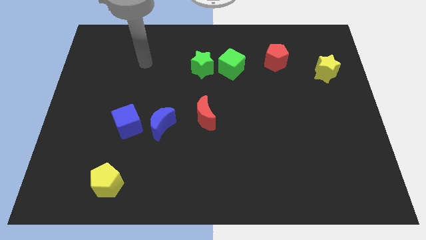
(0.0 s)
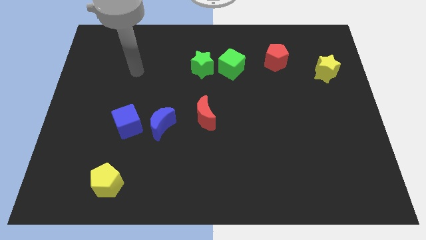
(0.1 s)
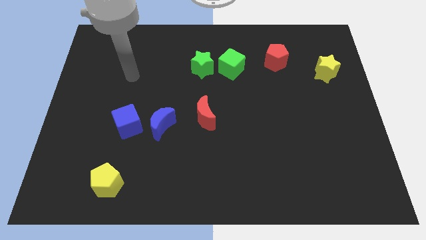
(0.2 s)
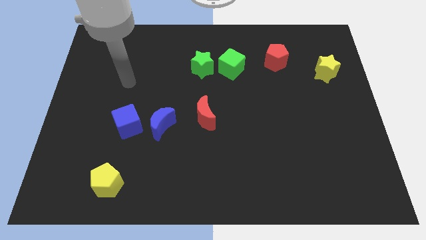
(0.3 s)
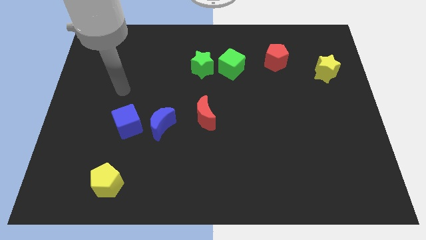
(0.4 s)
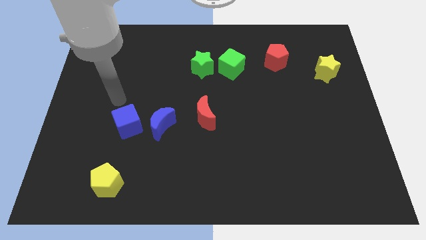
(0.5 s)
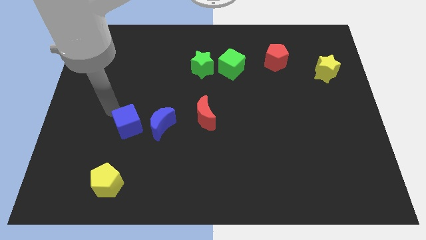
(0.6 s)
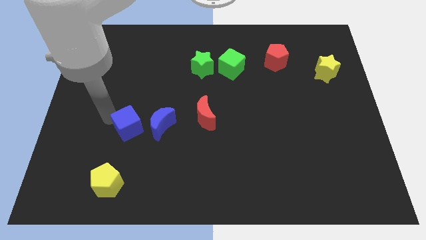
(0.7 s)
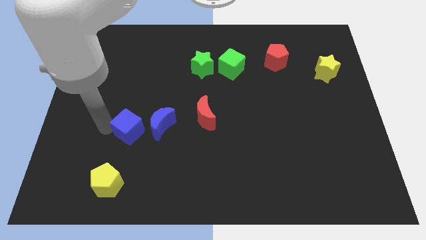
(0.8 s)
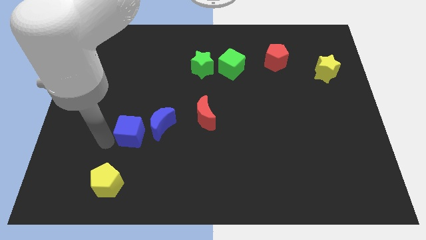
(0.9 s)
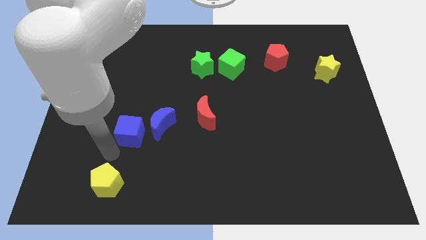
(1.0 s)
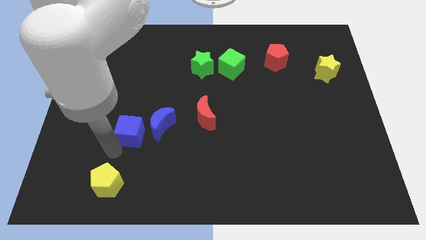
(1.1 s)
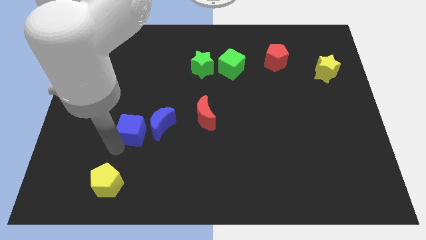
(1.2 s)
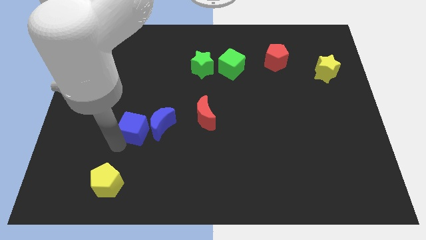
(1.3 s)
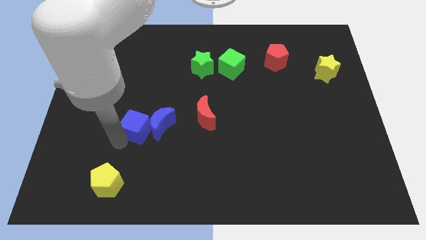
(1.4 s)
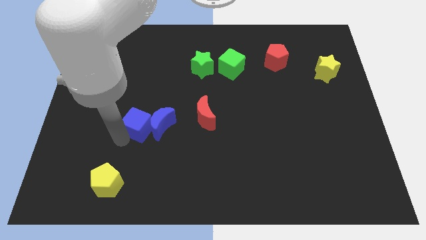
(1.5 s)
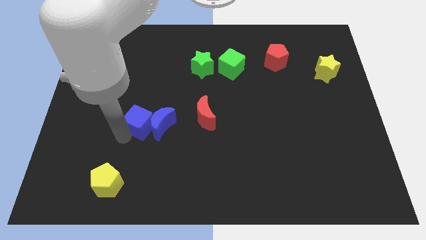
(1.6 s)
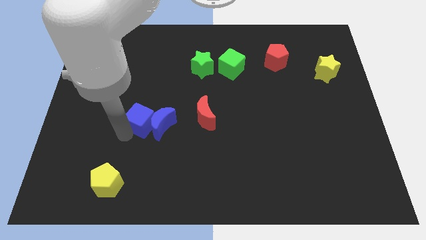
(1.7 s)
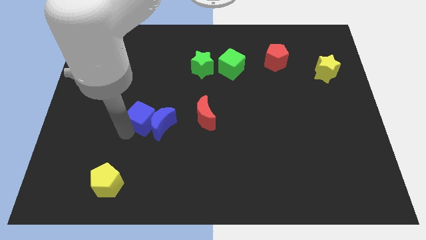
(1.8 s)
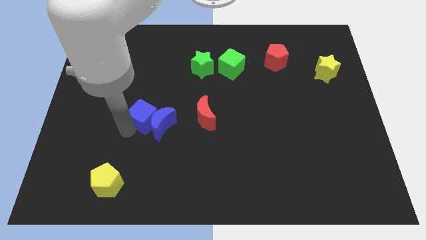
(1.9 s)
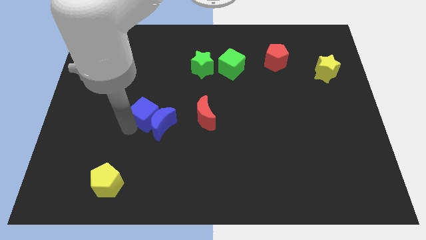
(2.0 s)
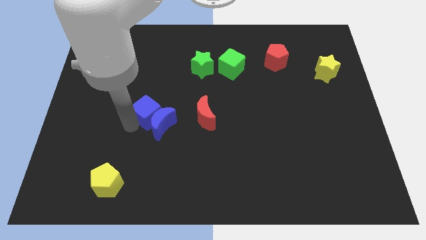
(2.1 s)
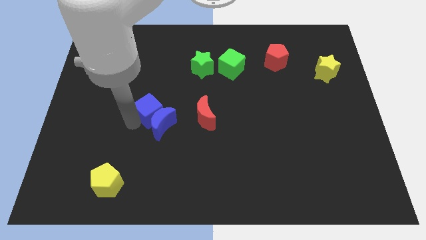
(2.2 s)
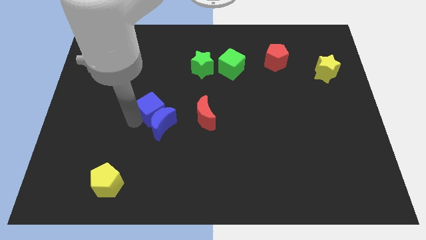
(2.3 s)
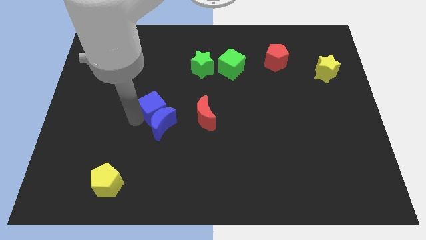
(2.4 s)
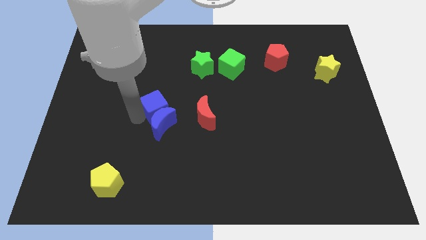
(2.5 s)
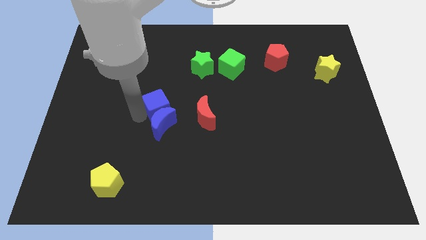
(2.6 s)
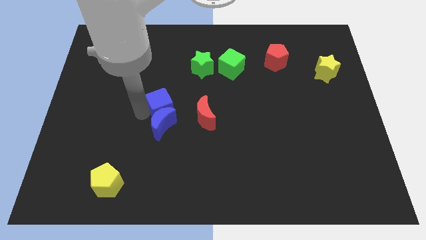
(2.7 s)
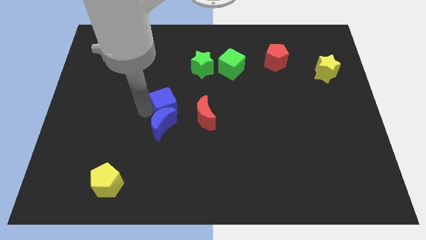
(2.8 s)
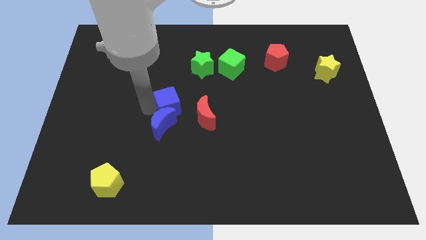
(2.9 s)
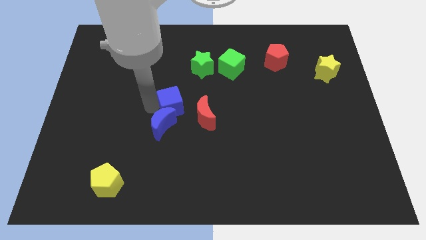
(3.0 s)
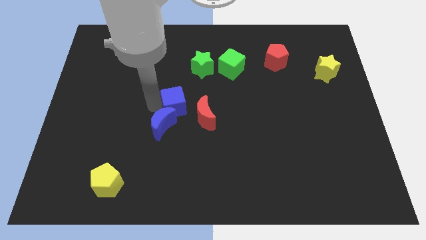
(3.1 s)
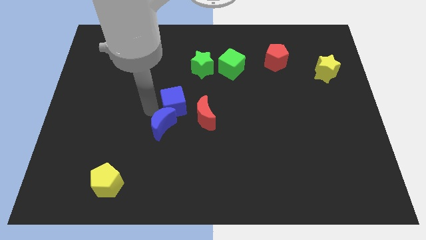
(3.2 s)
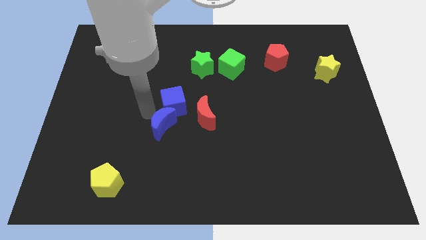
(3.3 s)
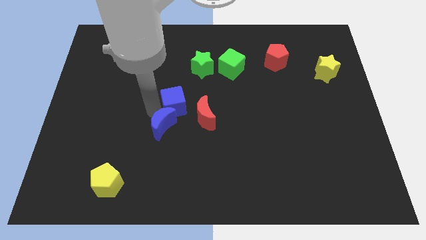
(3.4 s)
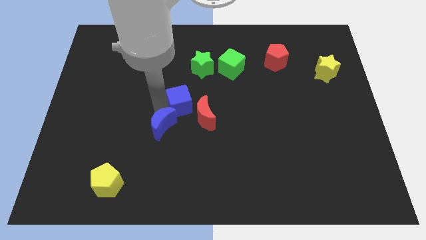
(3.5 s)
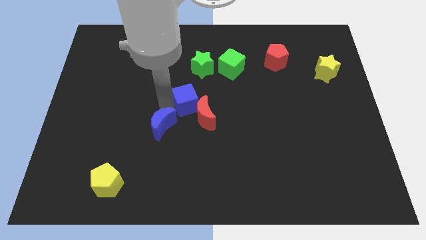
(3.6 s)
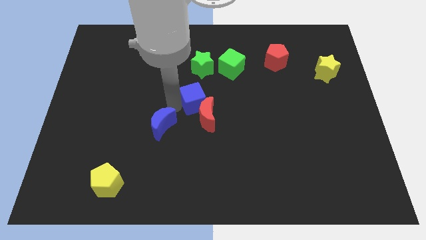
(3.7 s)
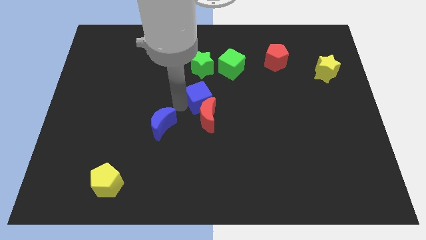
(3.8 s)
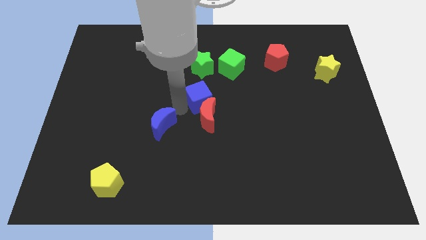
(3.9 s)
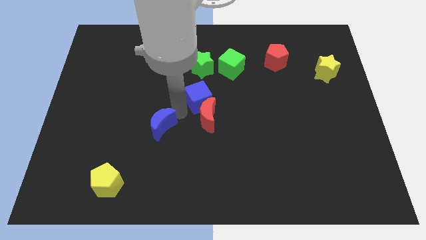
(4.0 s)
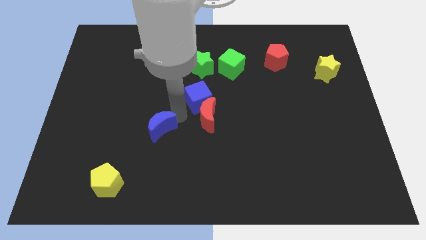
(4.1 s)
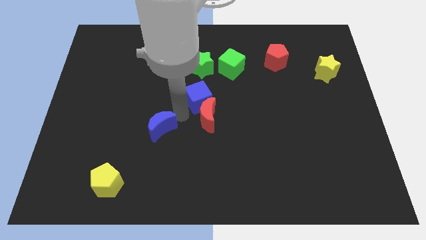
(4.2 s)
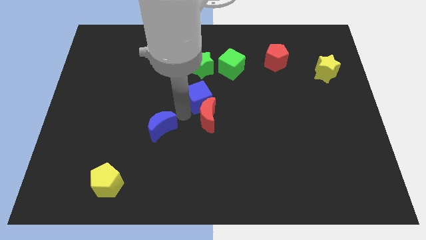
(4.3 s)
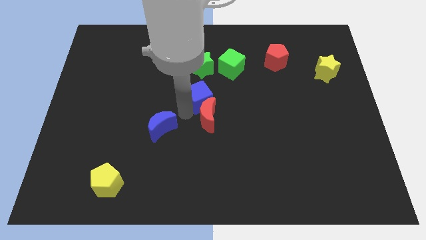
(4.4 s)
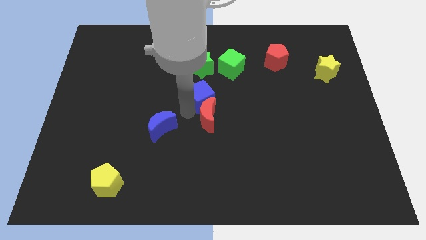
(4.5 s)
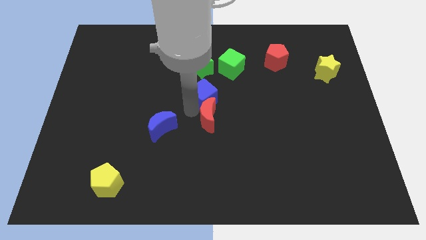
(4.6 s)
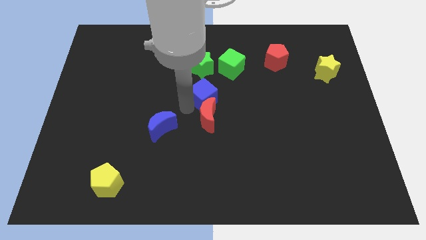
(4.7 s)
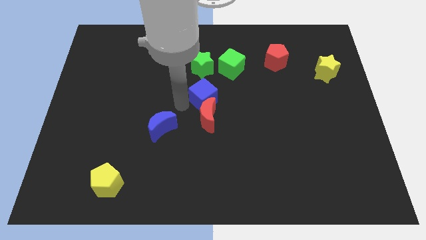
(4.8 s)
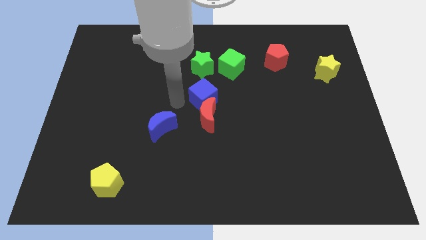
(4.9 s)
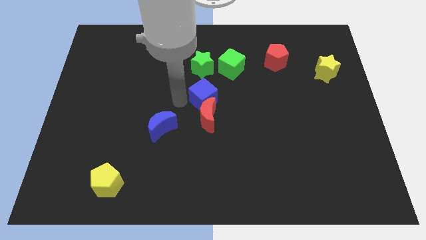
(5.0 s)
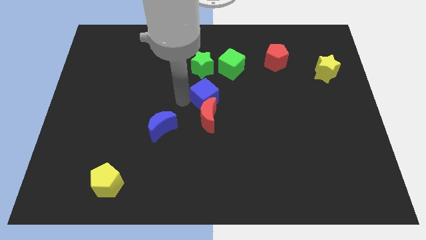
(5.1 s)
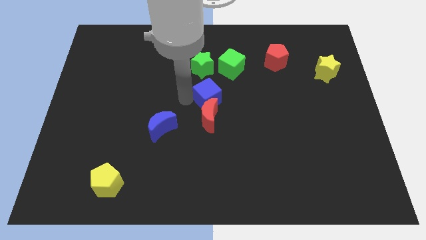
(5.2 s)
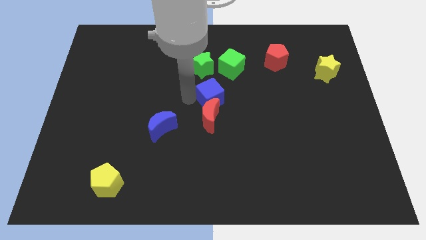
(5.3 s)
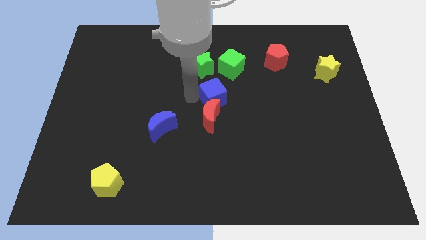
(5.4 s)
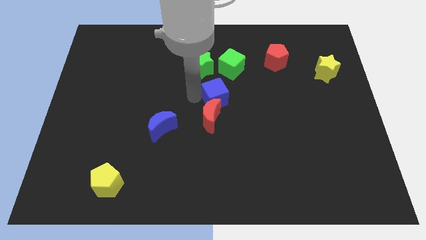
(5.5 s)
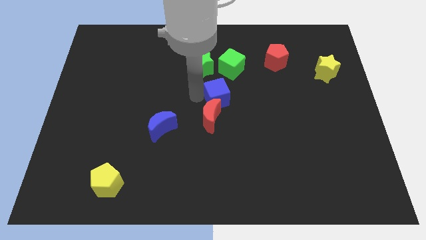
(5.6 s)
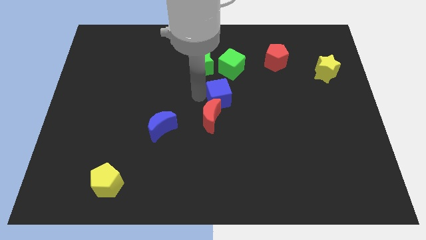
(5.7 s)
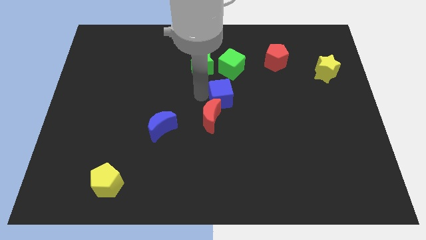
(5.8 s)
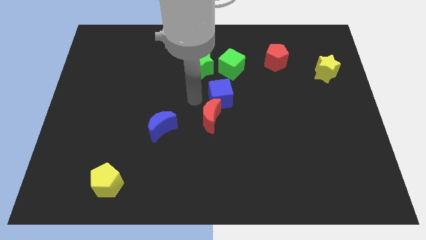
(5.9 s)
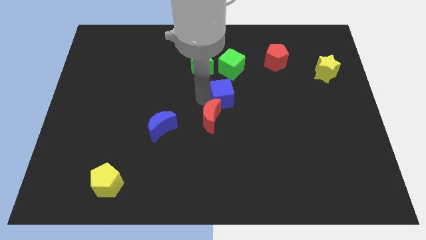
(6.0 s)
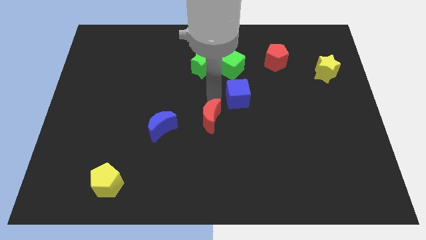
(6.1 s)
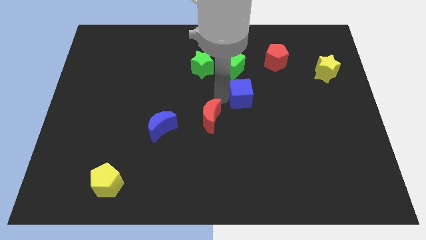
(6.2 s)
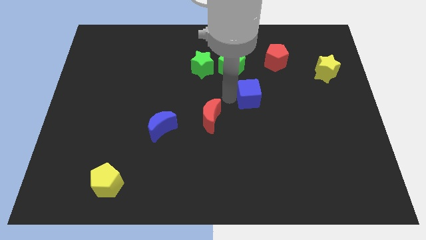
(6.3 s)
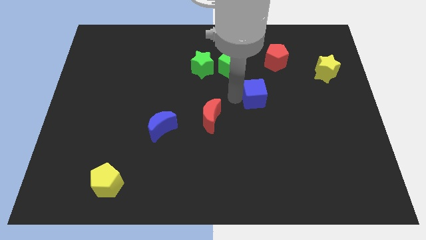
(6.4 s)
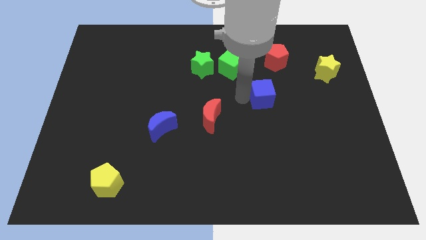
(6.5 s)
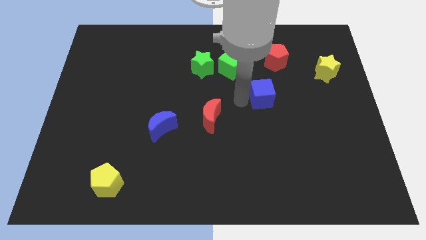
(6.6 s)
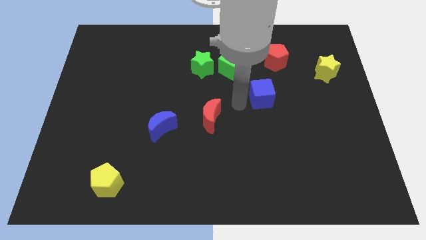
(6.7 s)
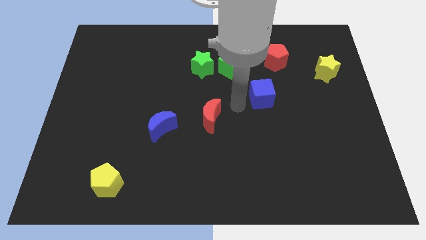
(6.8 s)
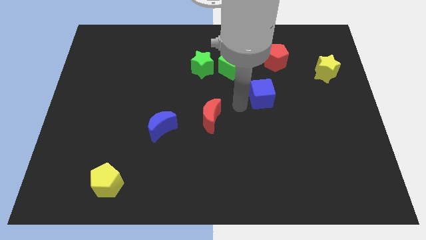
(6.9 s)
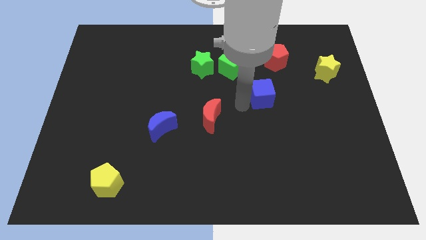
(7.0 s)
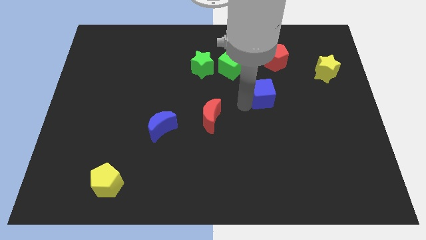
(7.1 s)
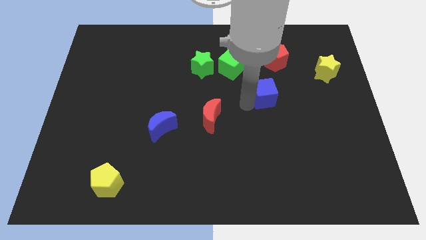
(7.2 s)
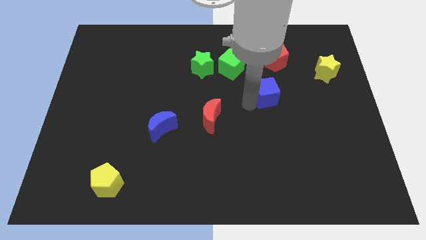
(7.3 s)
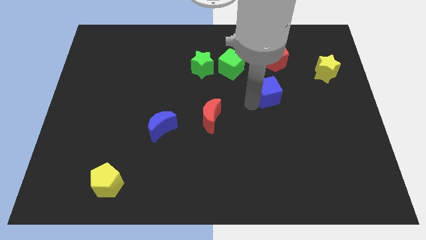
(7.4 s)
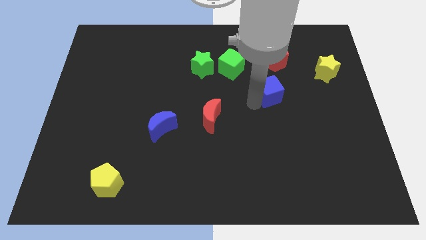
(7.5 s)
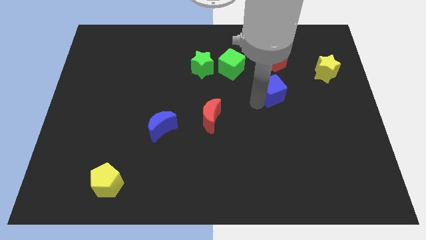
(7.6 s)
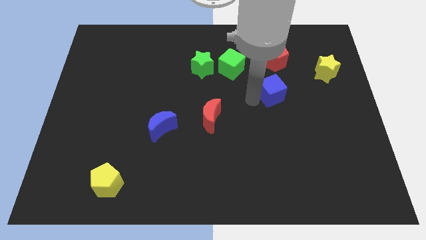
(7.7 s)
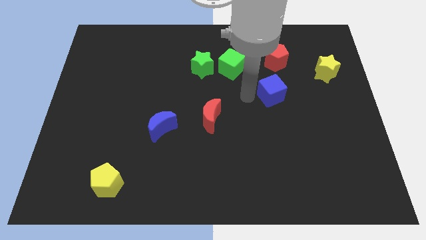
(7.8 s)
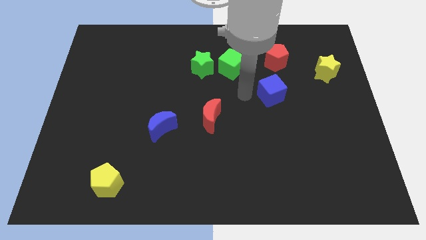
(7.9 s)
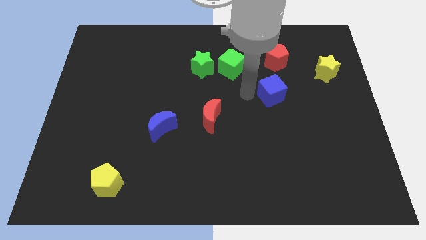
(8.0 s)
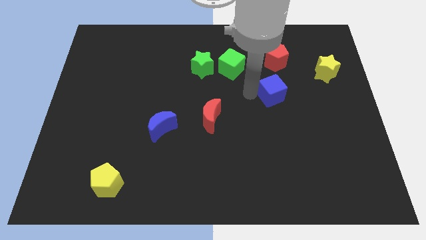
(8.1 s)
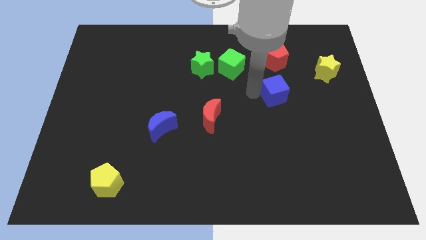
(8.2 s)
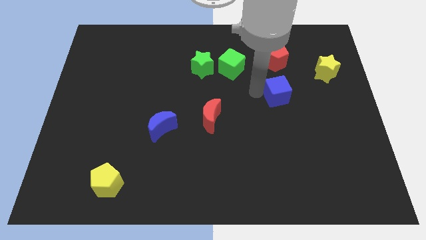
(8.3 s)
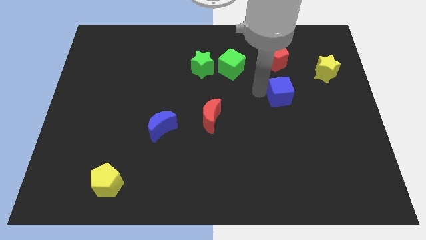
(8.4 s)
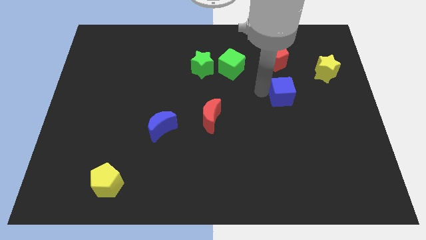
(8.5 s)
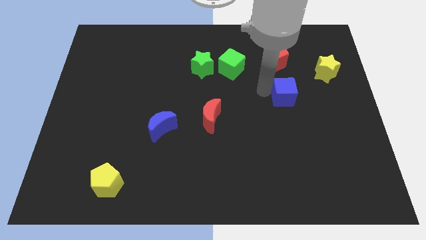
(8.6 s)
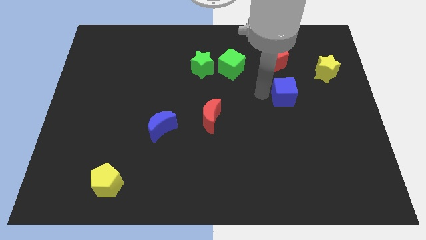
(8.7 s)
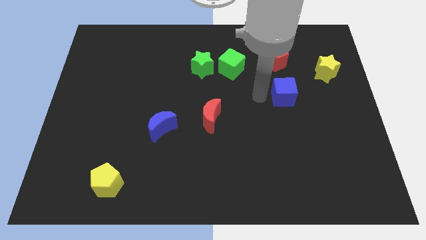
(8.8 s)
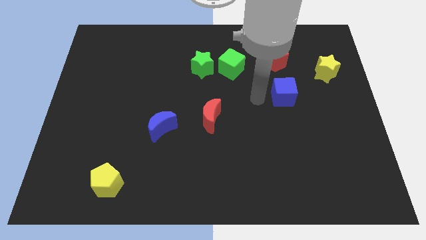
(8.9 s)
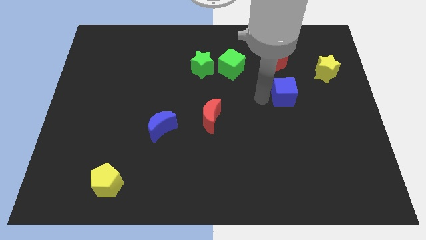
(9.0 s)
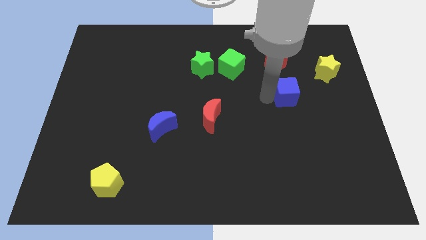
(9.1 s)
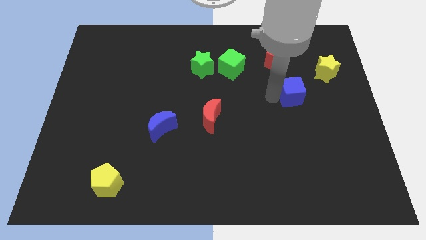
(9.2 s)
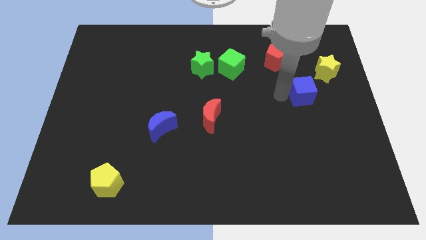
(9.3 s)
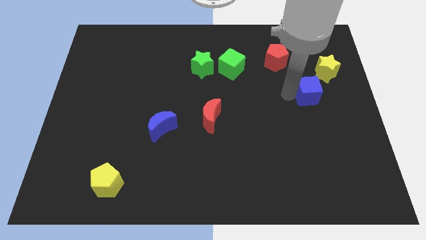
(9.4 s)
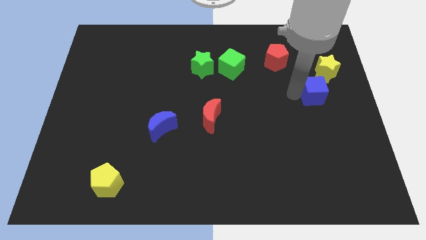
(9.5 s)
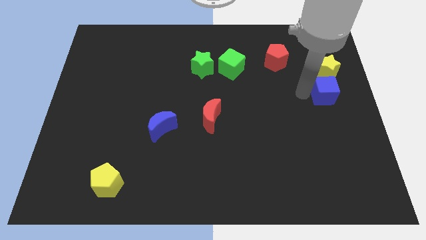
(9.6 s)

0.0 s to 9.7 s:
push the blue cube to the right side of the board
